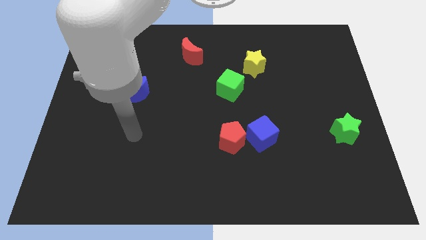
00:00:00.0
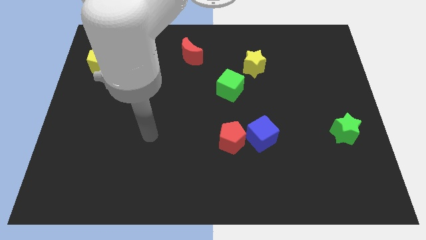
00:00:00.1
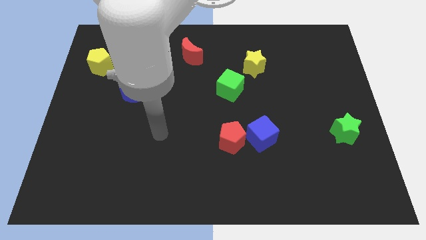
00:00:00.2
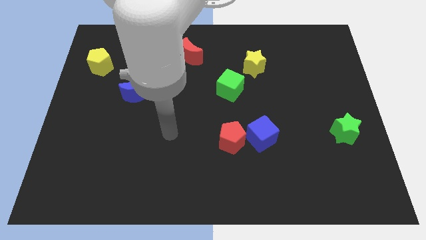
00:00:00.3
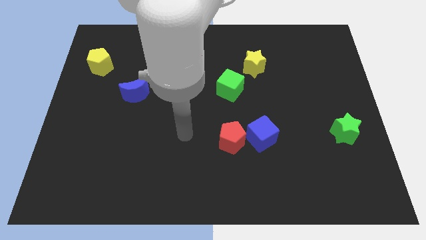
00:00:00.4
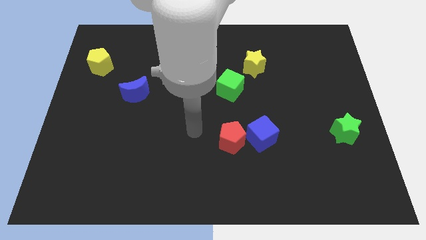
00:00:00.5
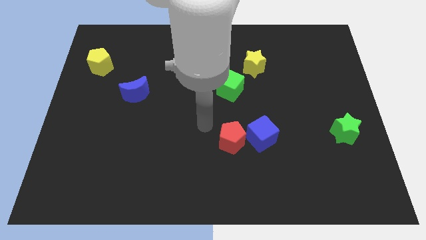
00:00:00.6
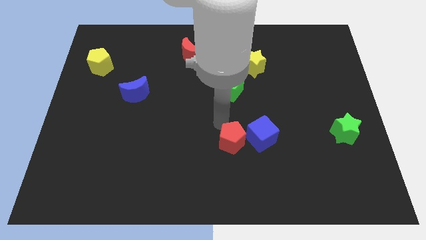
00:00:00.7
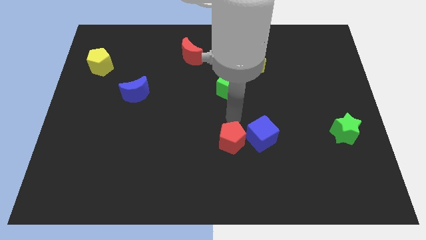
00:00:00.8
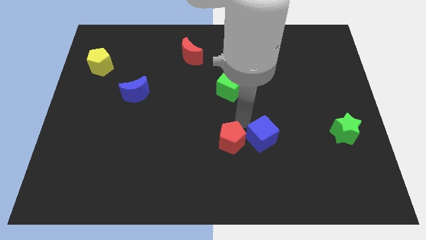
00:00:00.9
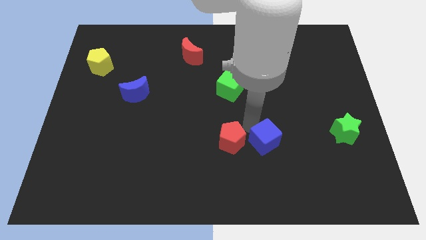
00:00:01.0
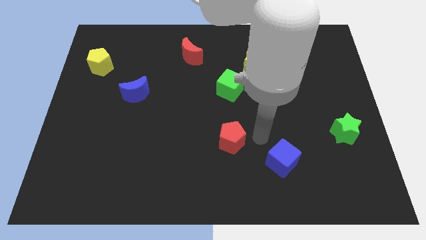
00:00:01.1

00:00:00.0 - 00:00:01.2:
separate the red pentagon from the blue cube

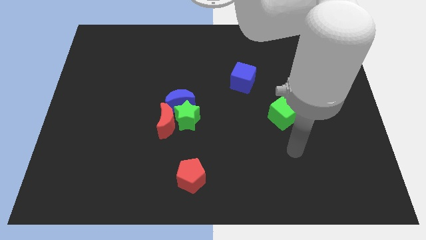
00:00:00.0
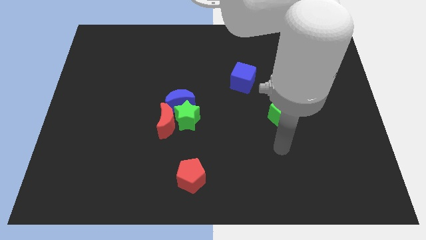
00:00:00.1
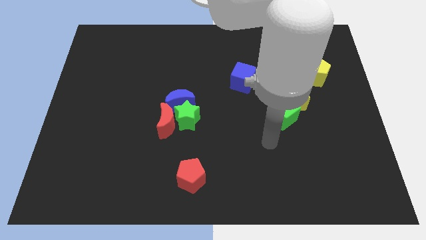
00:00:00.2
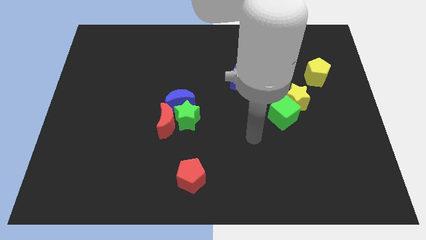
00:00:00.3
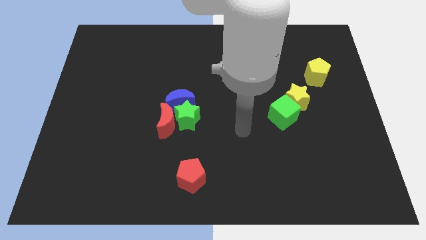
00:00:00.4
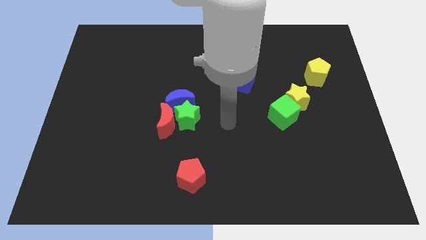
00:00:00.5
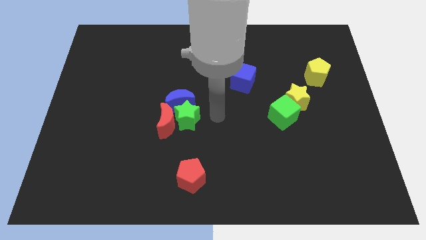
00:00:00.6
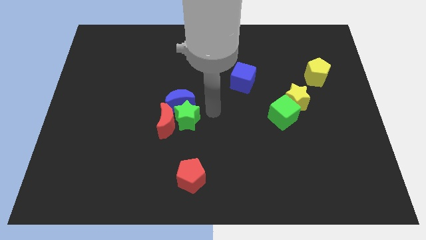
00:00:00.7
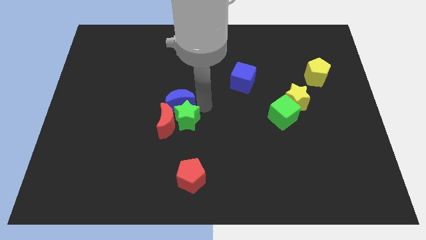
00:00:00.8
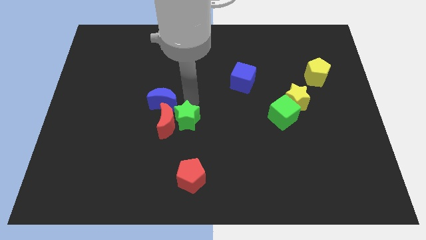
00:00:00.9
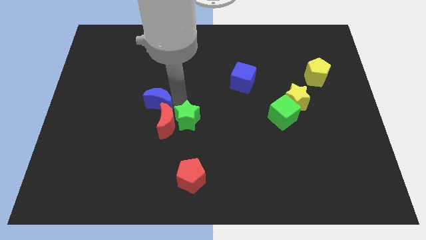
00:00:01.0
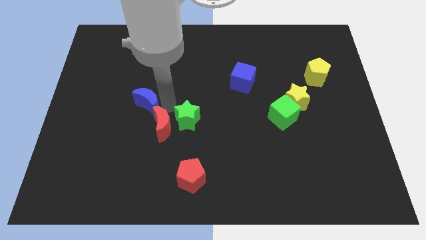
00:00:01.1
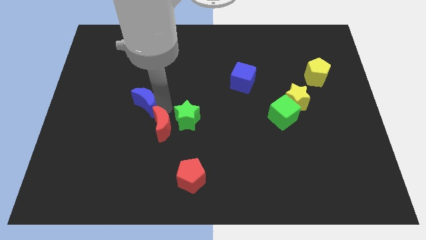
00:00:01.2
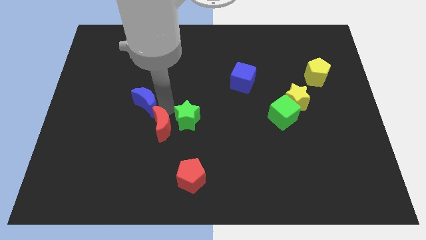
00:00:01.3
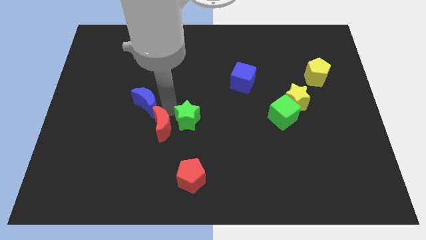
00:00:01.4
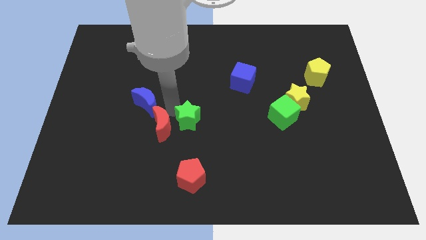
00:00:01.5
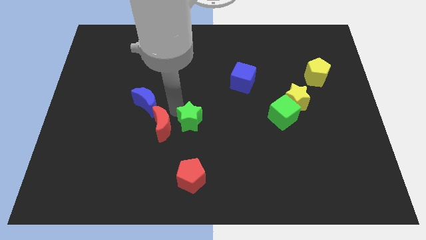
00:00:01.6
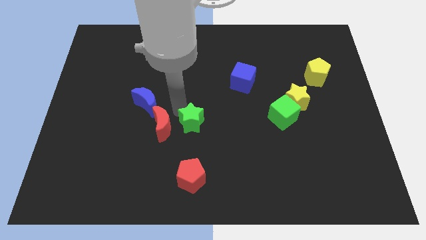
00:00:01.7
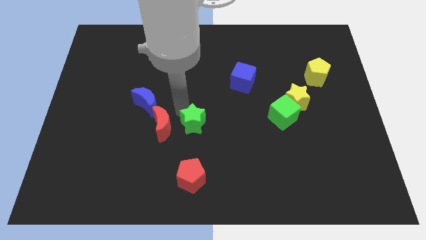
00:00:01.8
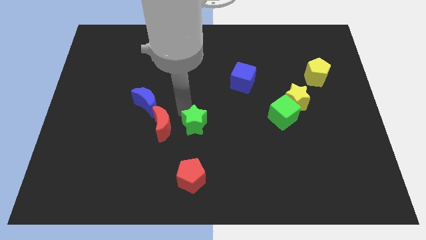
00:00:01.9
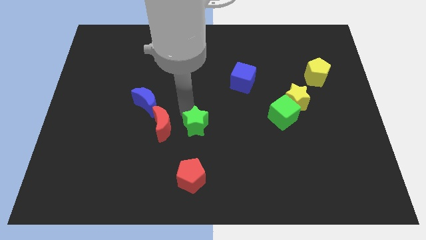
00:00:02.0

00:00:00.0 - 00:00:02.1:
pull the green star apart from the blue moon and red moon

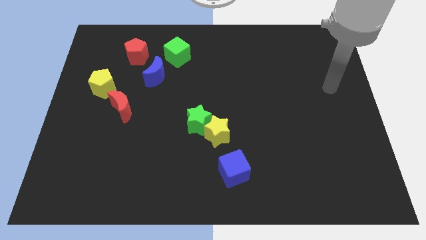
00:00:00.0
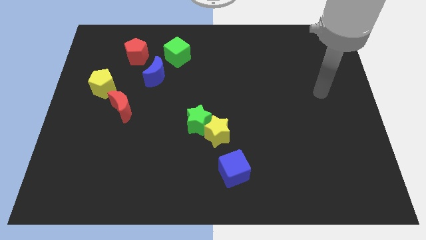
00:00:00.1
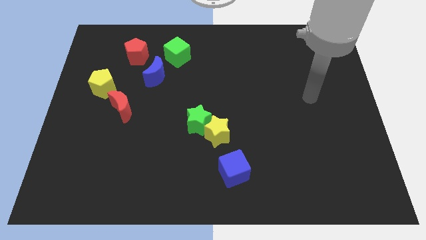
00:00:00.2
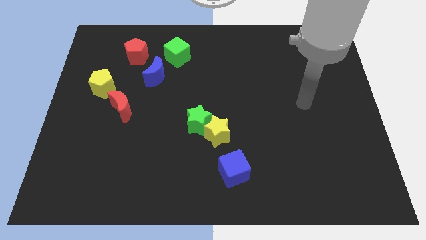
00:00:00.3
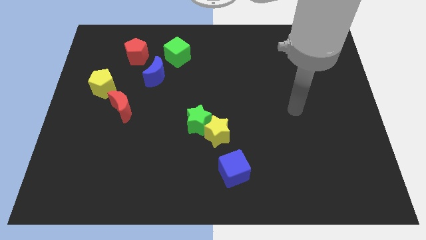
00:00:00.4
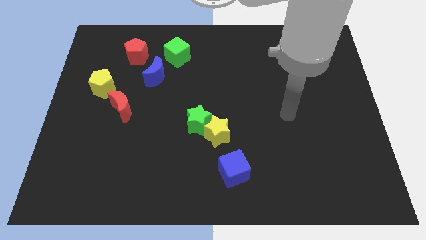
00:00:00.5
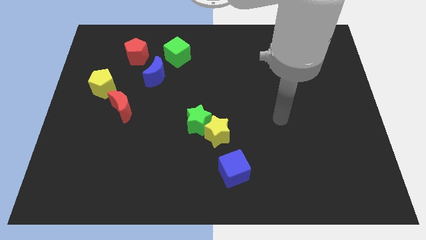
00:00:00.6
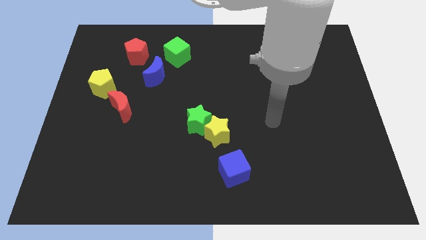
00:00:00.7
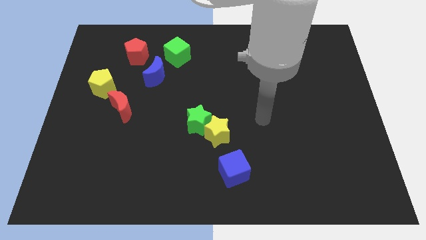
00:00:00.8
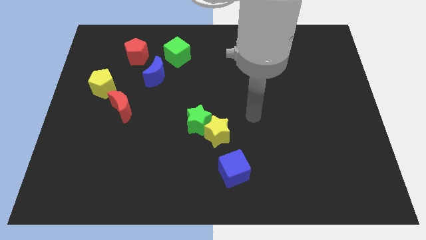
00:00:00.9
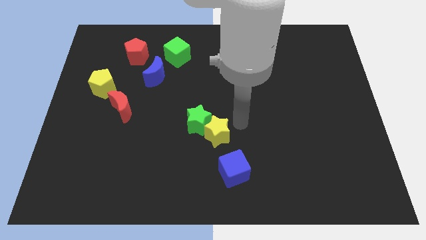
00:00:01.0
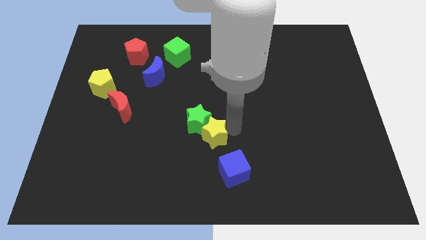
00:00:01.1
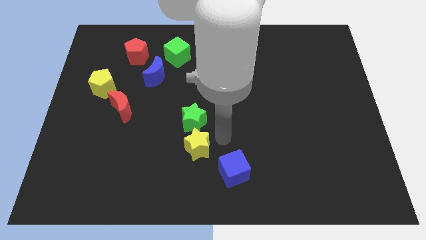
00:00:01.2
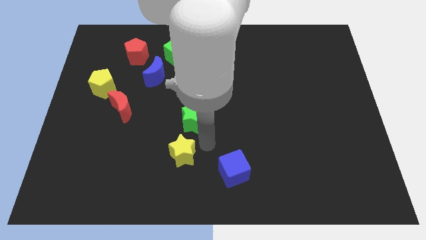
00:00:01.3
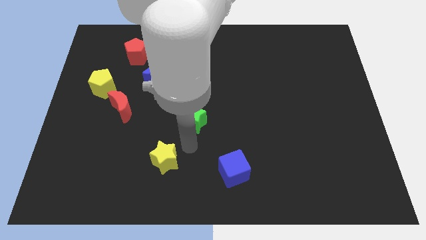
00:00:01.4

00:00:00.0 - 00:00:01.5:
separate the green star from the yellow star

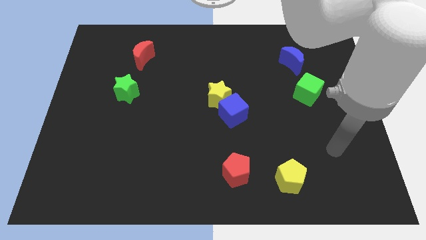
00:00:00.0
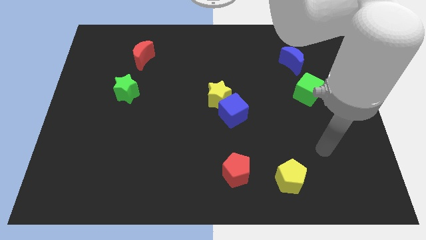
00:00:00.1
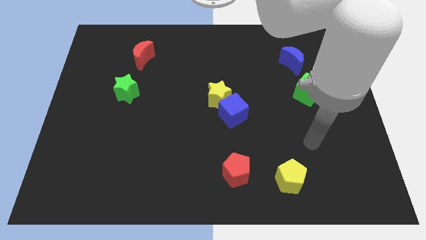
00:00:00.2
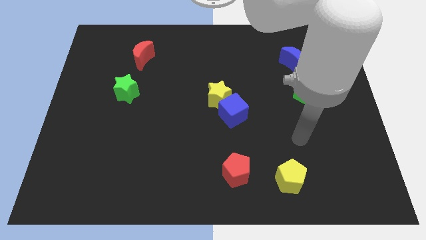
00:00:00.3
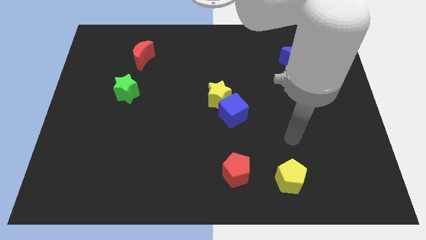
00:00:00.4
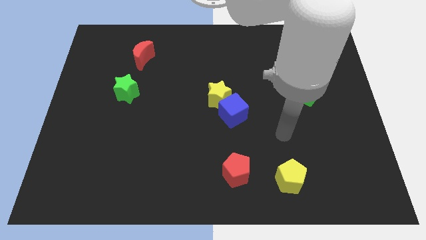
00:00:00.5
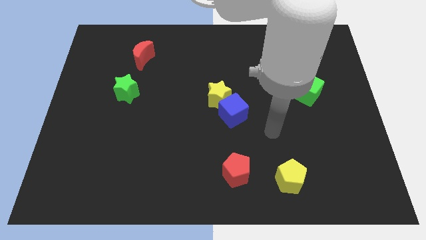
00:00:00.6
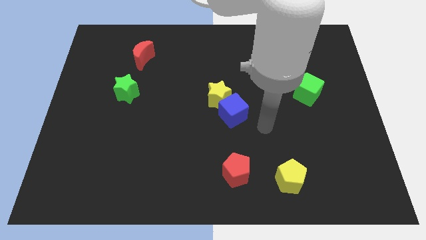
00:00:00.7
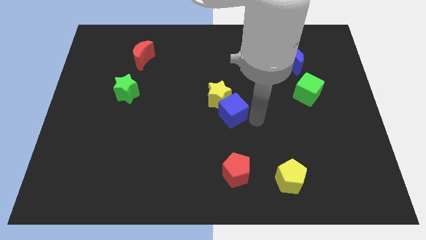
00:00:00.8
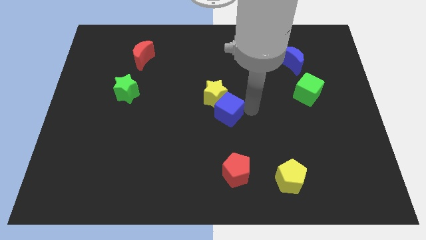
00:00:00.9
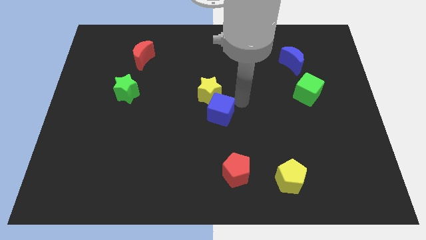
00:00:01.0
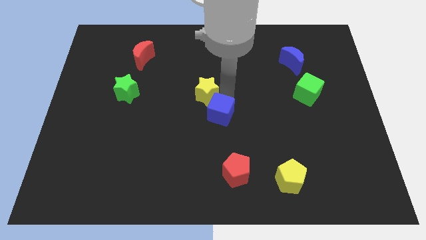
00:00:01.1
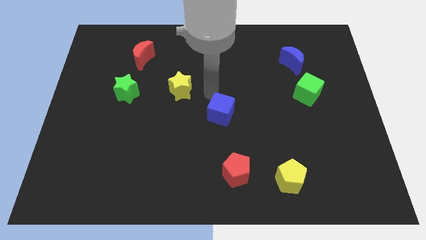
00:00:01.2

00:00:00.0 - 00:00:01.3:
separate the blue cube from the yellow star

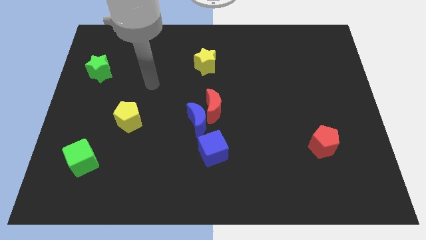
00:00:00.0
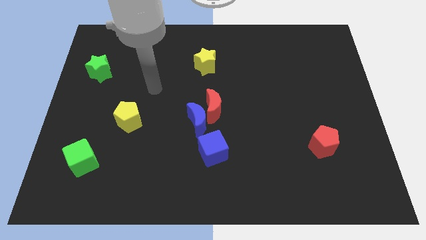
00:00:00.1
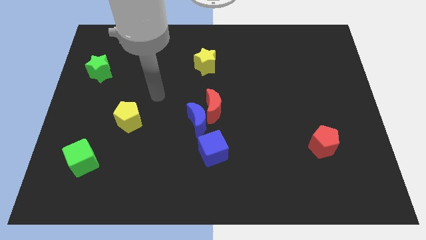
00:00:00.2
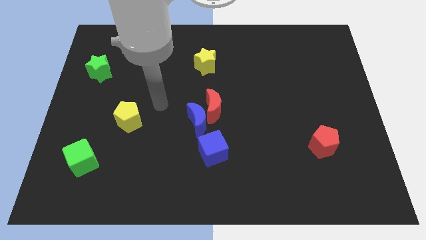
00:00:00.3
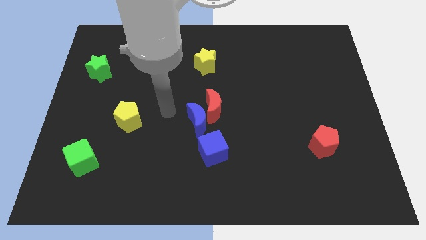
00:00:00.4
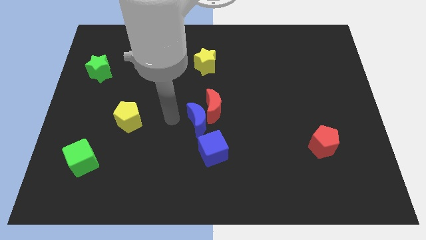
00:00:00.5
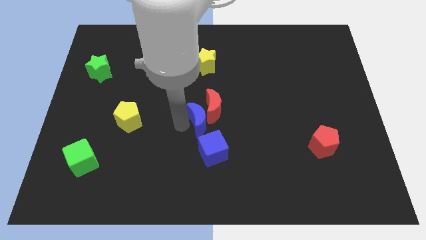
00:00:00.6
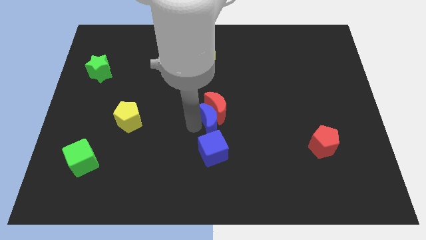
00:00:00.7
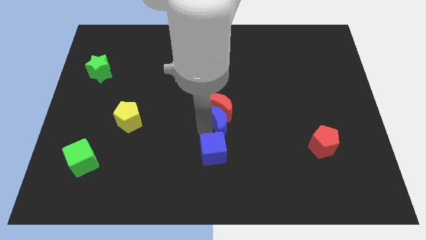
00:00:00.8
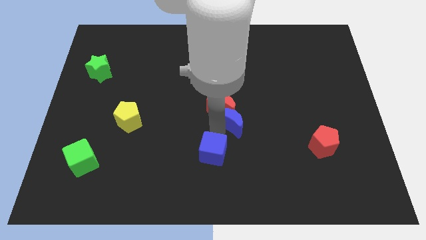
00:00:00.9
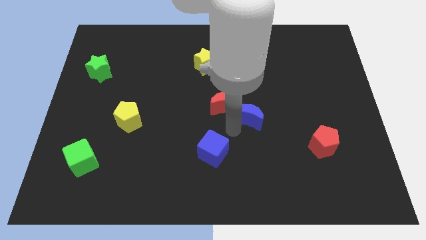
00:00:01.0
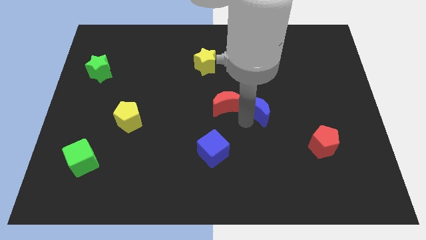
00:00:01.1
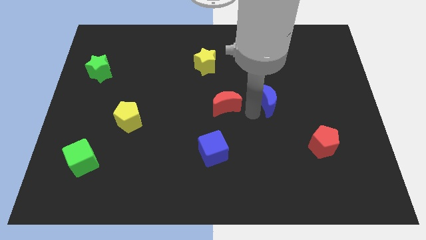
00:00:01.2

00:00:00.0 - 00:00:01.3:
separate the red moon from the blue moon

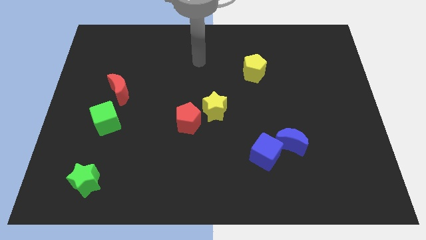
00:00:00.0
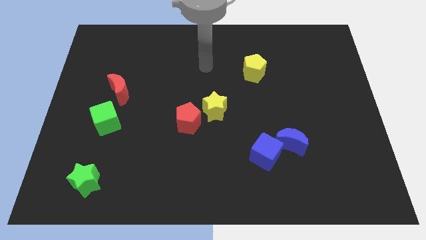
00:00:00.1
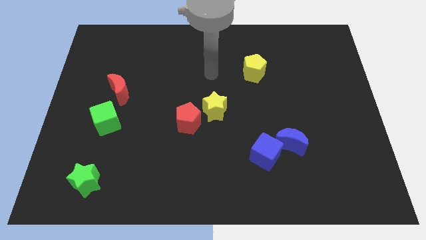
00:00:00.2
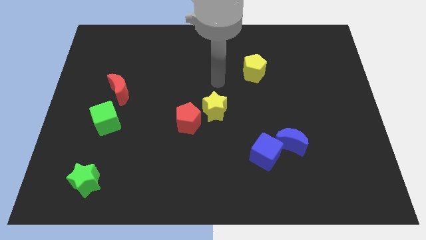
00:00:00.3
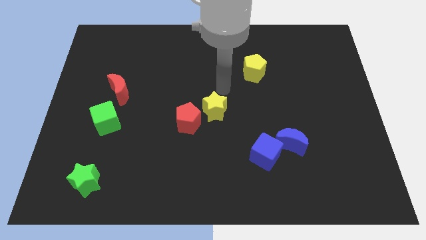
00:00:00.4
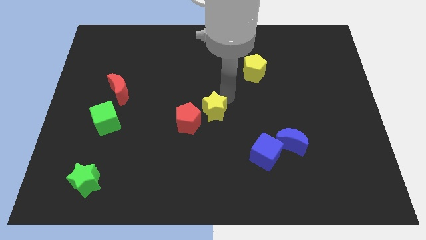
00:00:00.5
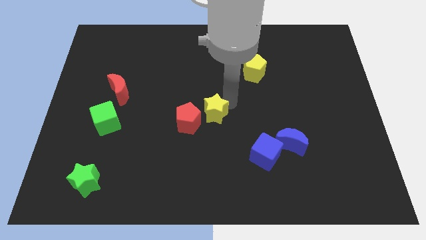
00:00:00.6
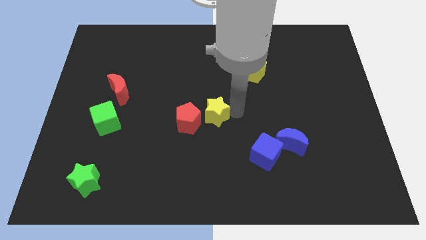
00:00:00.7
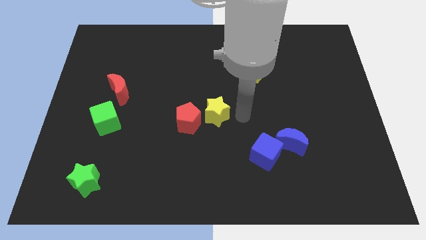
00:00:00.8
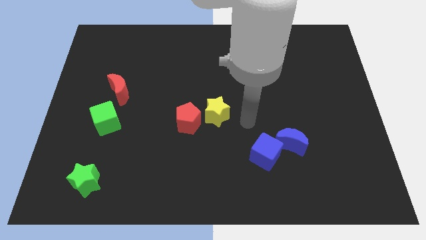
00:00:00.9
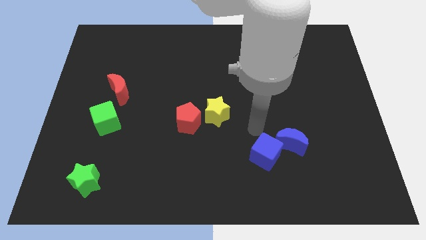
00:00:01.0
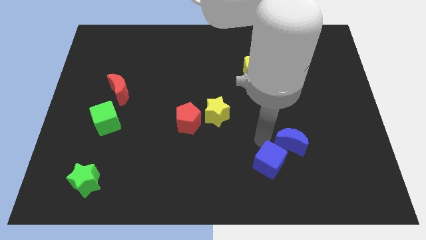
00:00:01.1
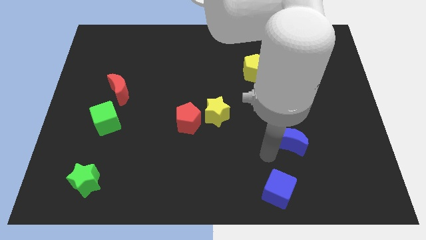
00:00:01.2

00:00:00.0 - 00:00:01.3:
move the blue moon away from the blue cube

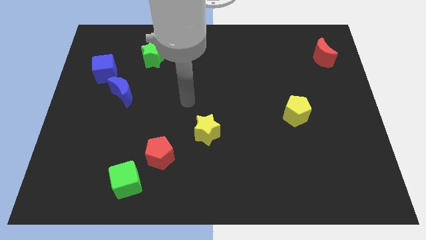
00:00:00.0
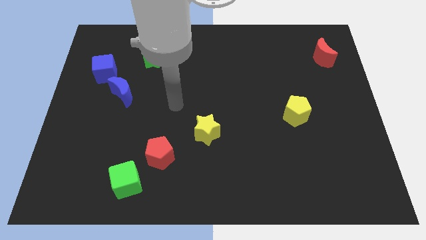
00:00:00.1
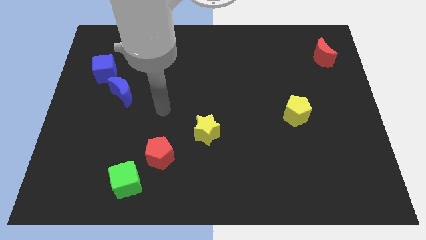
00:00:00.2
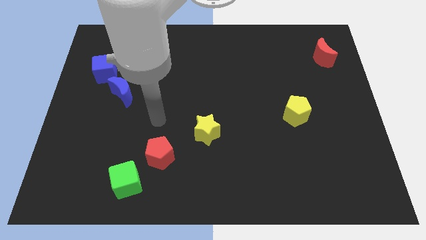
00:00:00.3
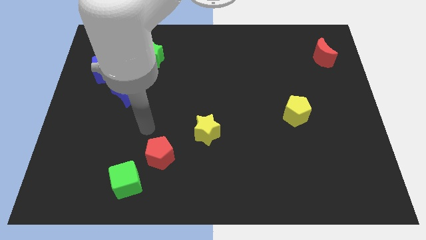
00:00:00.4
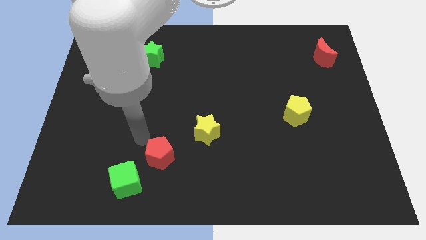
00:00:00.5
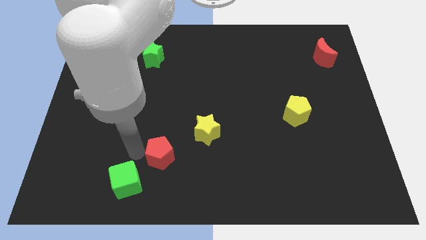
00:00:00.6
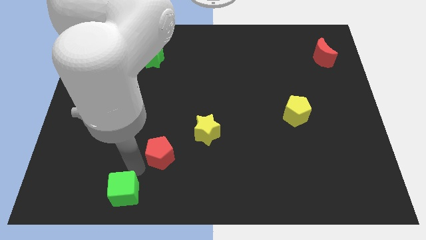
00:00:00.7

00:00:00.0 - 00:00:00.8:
move the red pentagon away from the green cube
